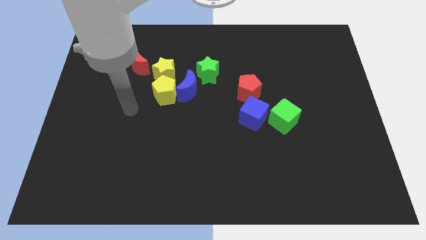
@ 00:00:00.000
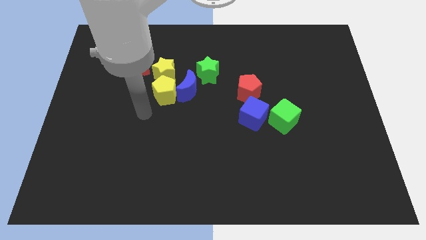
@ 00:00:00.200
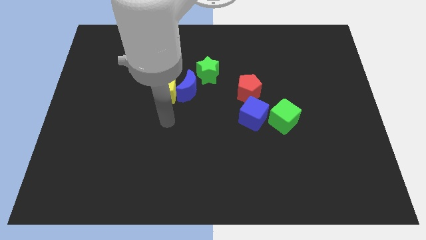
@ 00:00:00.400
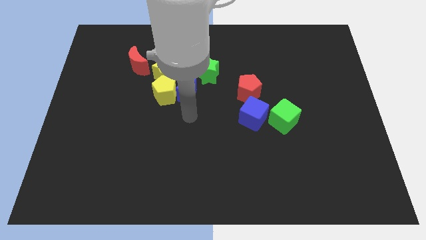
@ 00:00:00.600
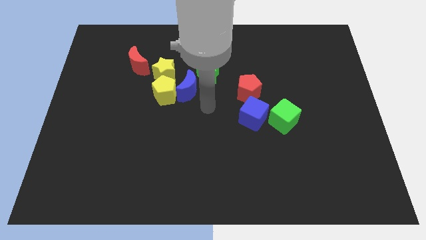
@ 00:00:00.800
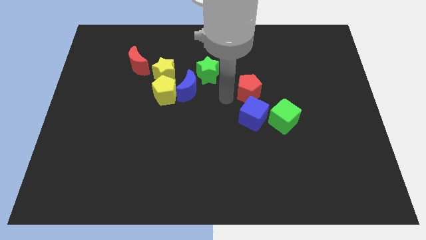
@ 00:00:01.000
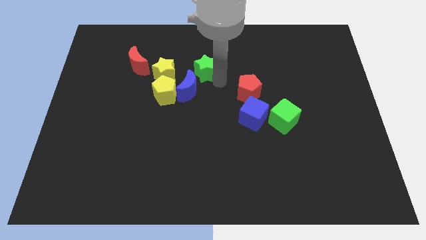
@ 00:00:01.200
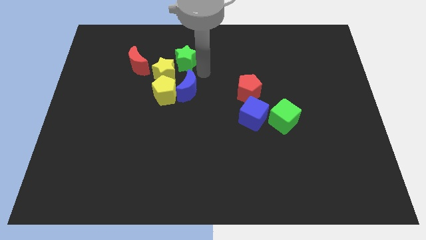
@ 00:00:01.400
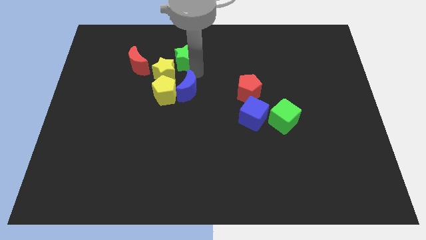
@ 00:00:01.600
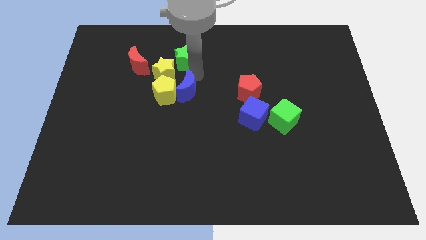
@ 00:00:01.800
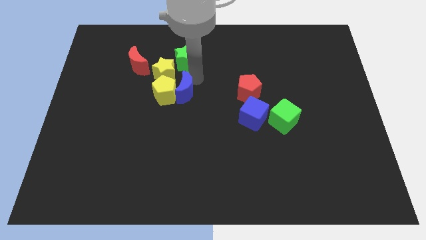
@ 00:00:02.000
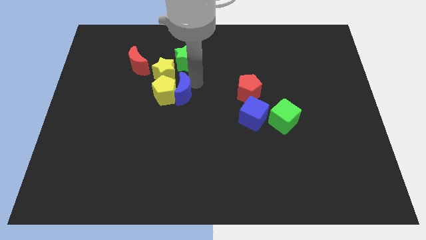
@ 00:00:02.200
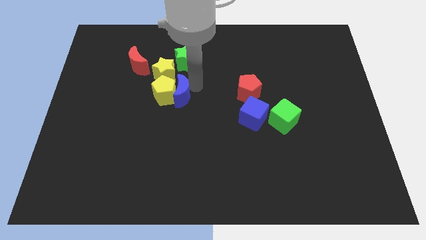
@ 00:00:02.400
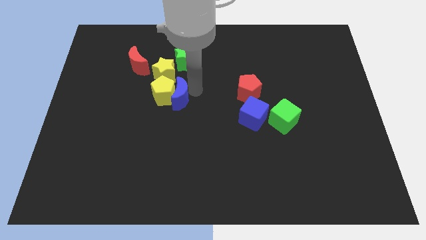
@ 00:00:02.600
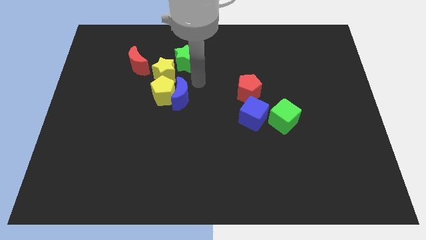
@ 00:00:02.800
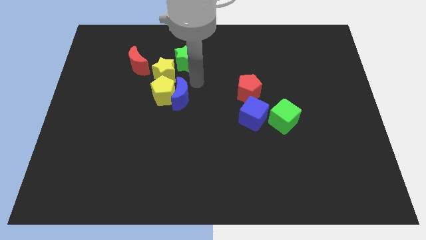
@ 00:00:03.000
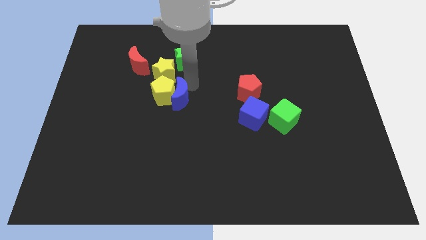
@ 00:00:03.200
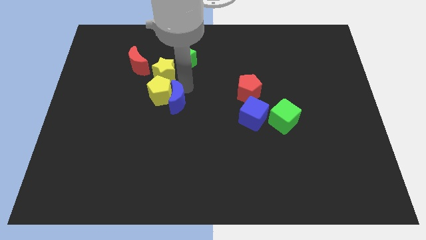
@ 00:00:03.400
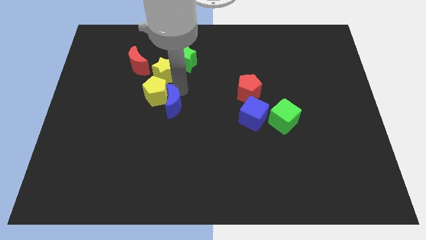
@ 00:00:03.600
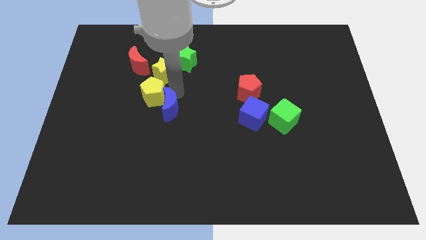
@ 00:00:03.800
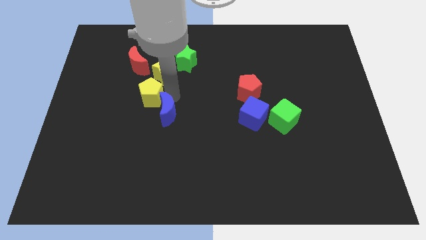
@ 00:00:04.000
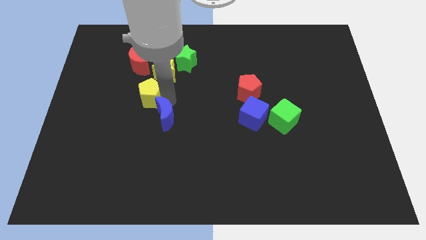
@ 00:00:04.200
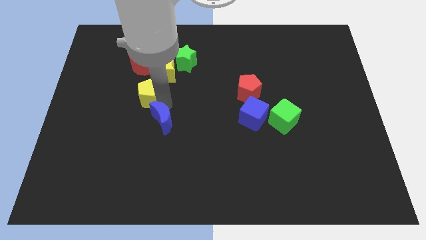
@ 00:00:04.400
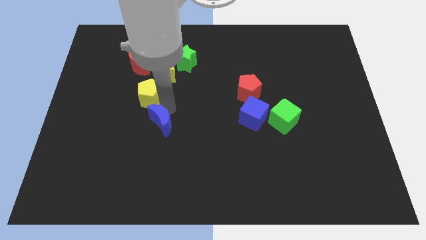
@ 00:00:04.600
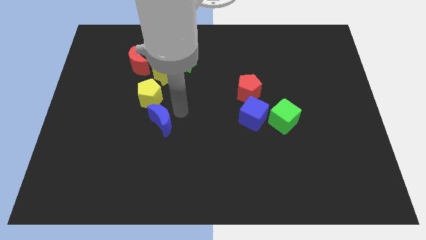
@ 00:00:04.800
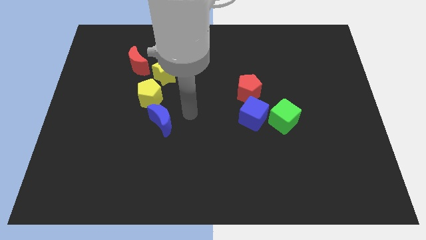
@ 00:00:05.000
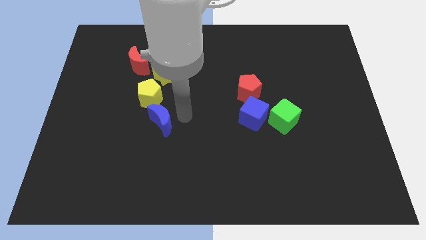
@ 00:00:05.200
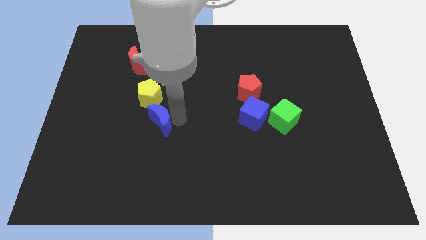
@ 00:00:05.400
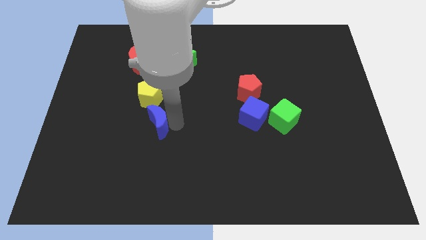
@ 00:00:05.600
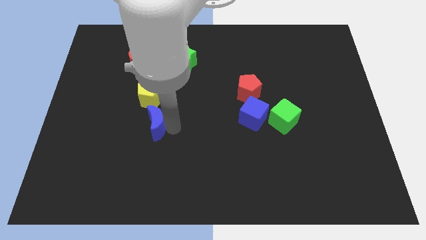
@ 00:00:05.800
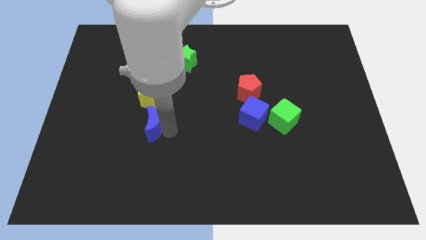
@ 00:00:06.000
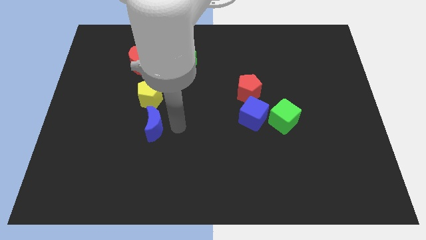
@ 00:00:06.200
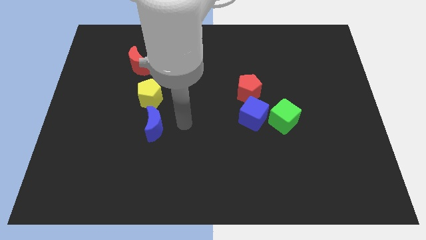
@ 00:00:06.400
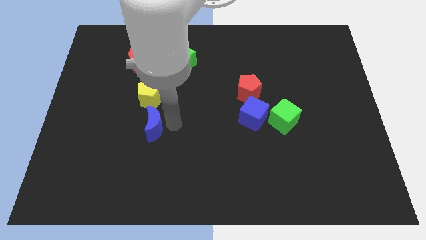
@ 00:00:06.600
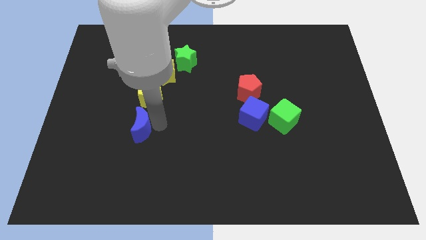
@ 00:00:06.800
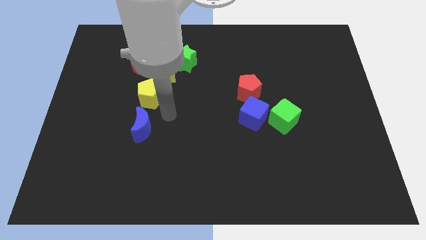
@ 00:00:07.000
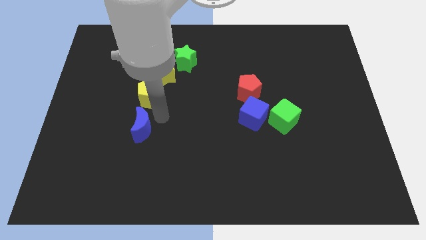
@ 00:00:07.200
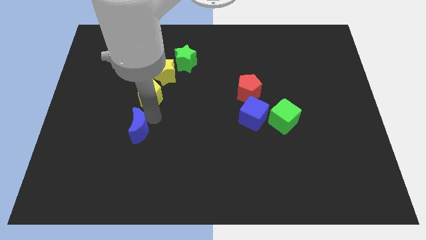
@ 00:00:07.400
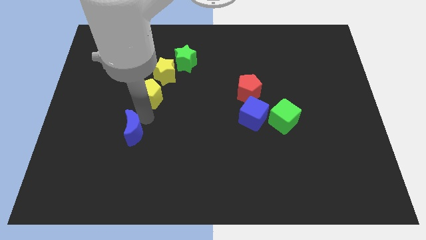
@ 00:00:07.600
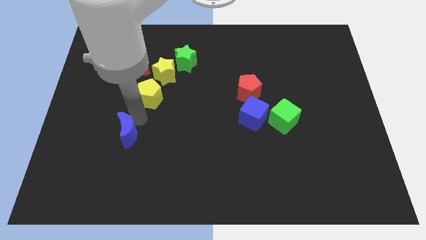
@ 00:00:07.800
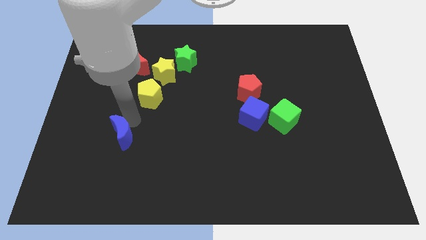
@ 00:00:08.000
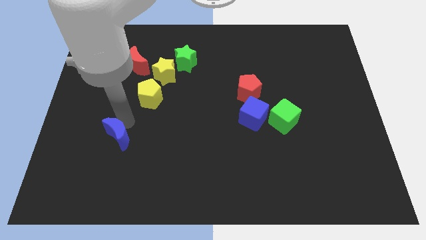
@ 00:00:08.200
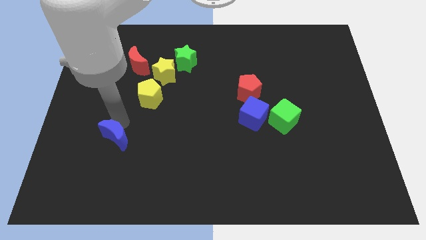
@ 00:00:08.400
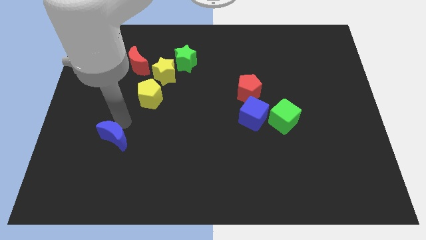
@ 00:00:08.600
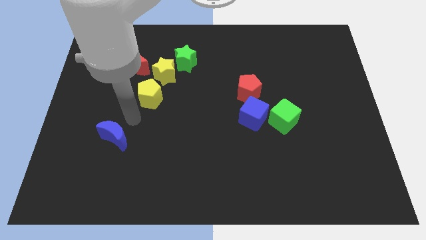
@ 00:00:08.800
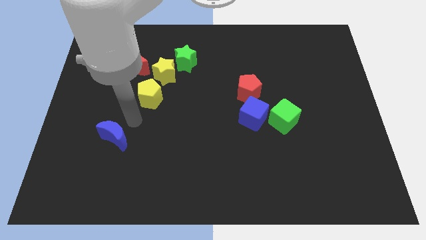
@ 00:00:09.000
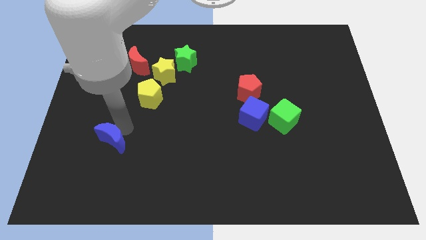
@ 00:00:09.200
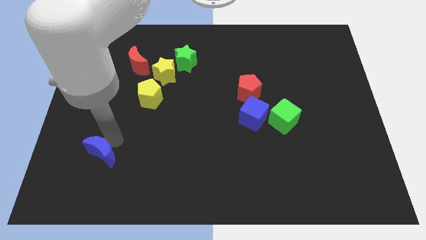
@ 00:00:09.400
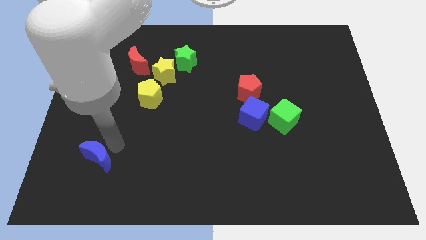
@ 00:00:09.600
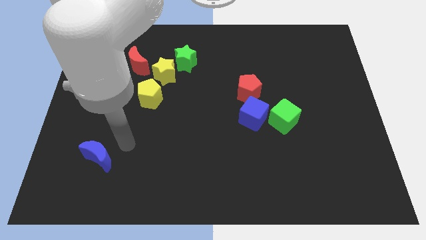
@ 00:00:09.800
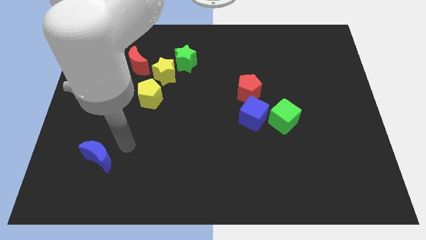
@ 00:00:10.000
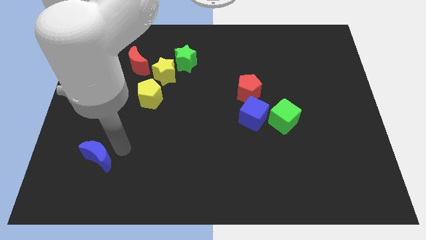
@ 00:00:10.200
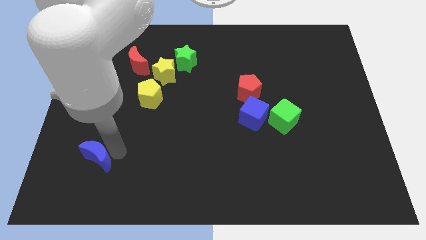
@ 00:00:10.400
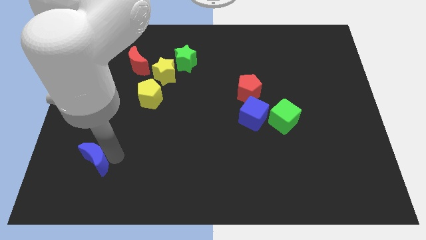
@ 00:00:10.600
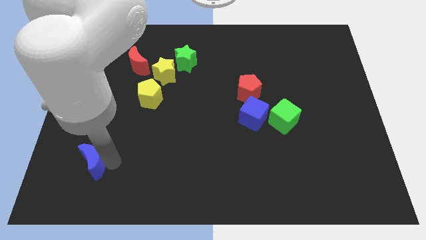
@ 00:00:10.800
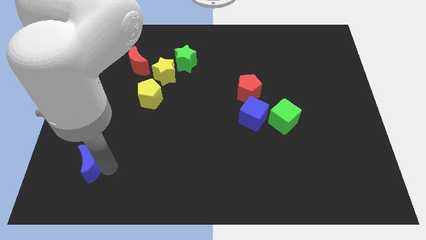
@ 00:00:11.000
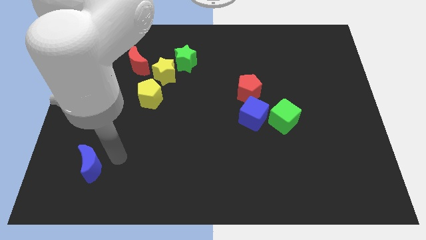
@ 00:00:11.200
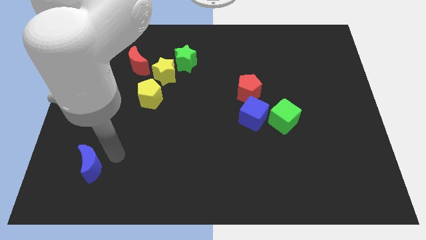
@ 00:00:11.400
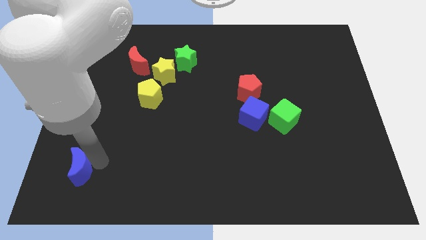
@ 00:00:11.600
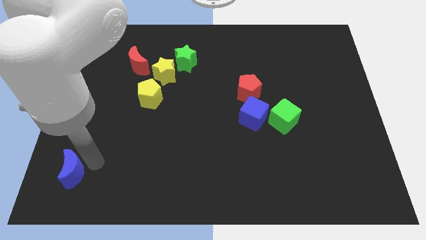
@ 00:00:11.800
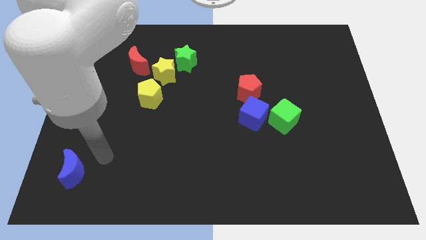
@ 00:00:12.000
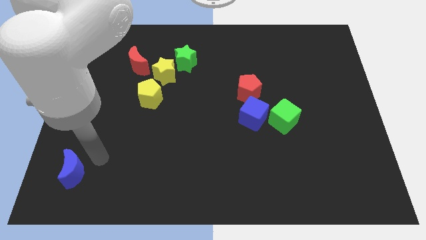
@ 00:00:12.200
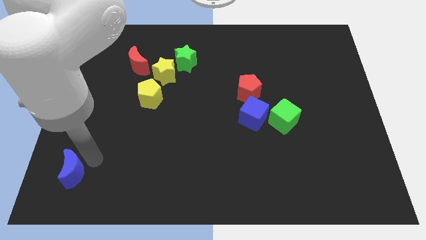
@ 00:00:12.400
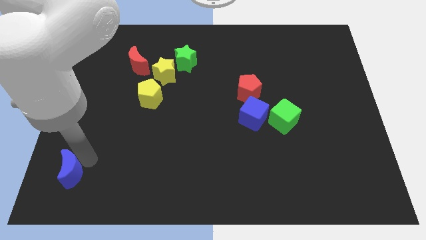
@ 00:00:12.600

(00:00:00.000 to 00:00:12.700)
put the blue moon to the bottom left
